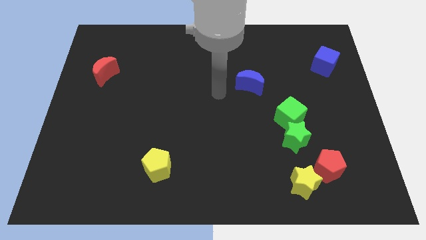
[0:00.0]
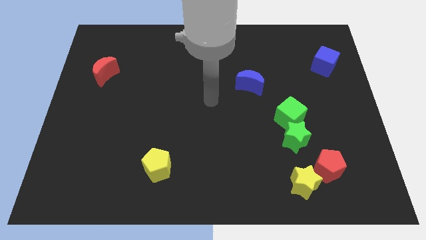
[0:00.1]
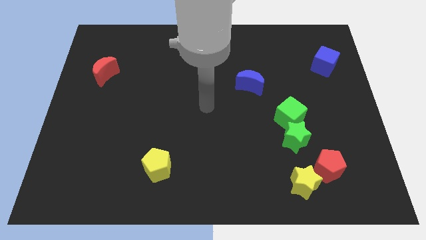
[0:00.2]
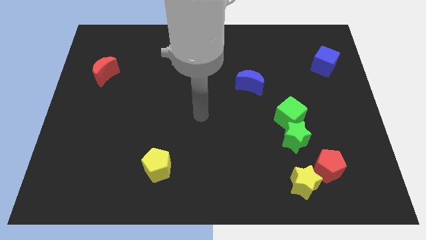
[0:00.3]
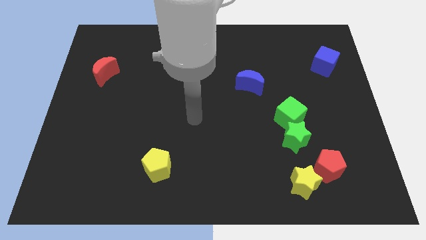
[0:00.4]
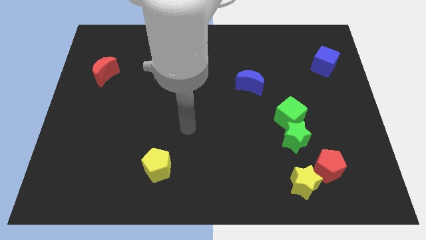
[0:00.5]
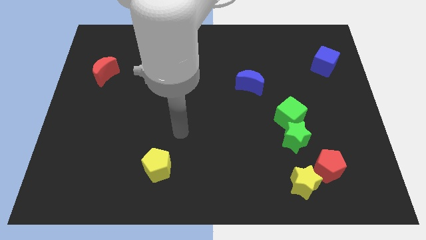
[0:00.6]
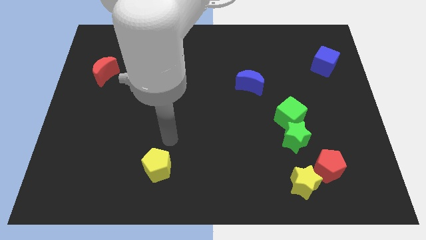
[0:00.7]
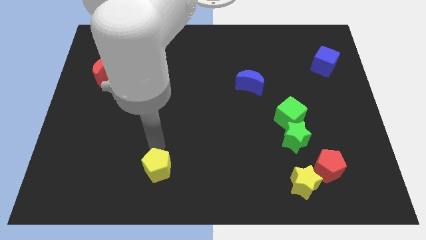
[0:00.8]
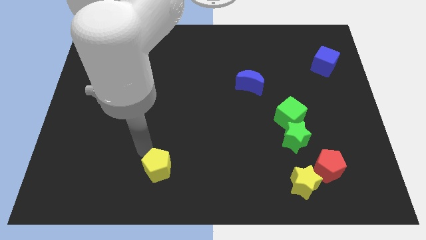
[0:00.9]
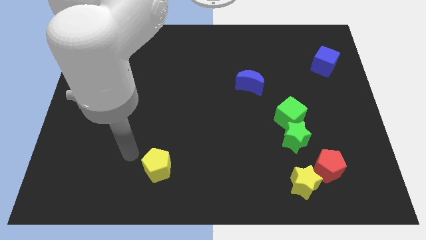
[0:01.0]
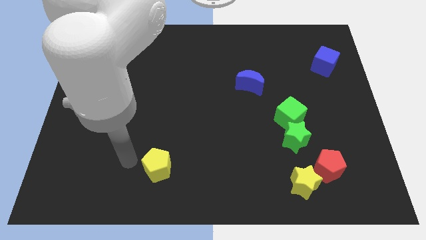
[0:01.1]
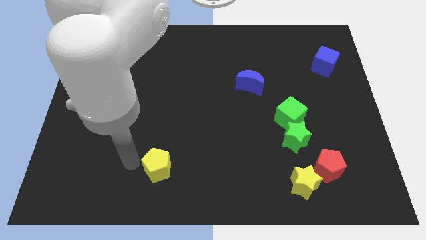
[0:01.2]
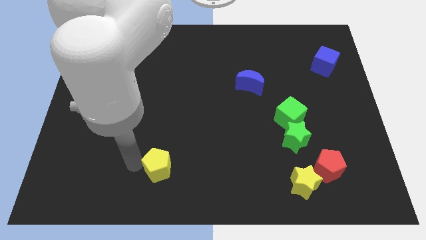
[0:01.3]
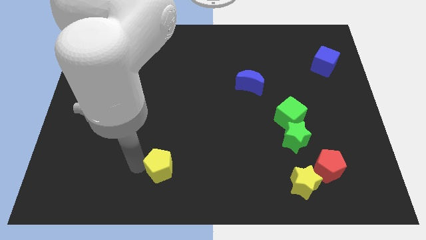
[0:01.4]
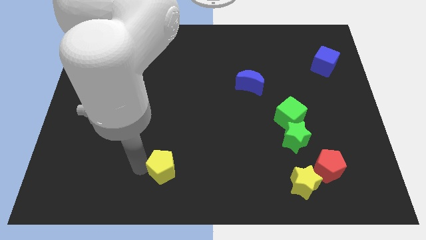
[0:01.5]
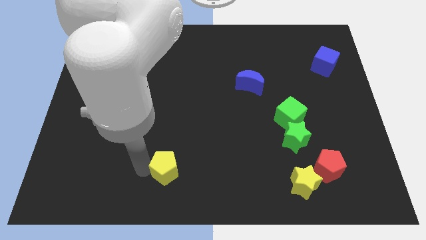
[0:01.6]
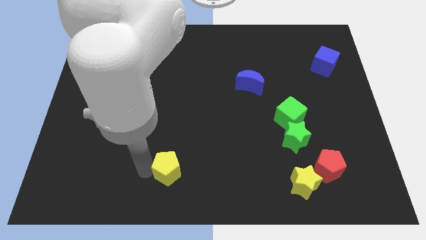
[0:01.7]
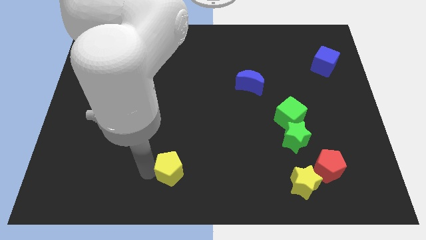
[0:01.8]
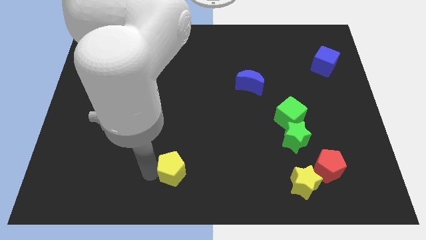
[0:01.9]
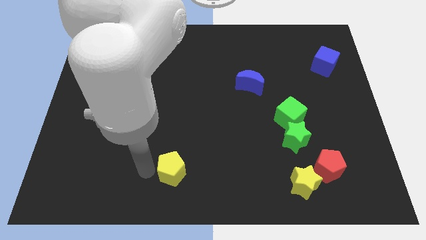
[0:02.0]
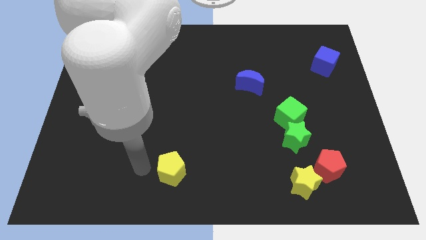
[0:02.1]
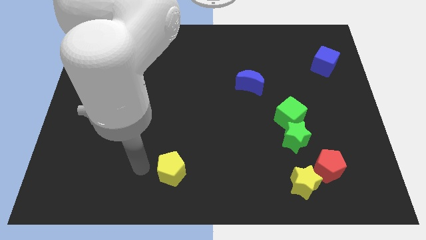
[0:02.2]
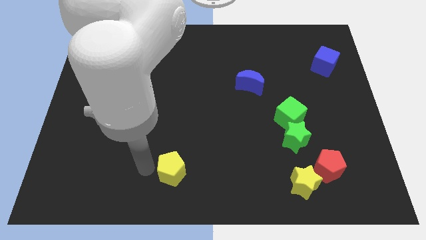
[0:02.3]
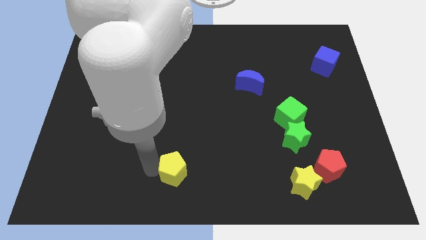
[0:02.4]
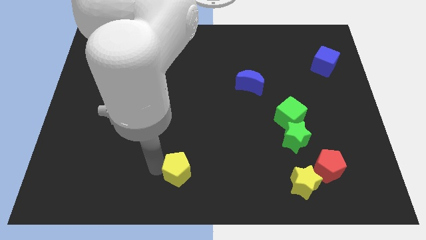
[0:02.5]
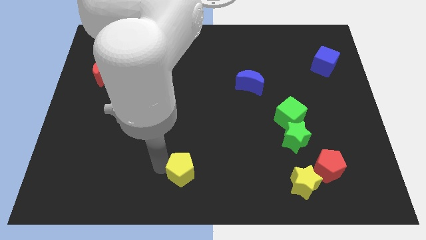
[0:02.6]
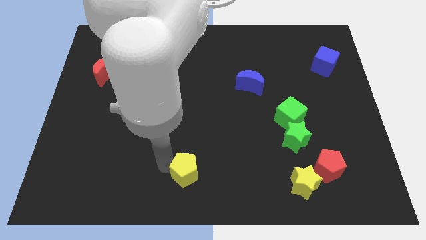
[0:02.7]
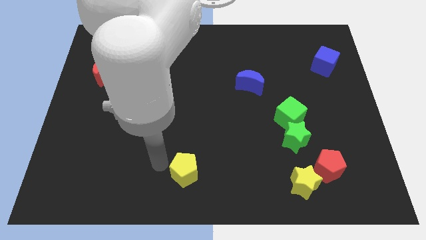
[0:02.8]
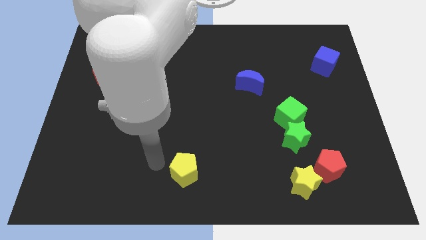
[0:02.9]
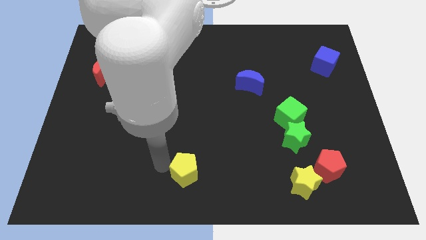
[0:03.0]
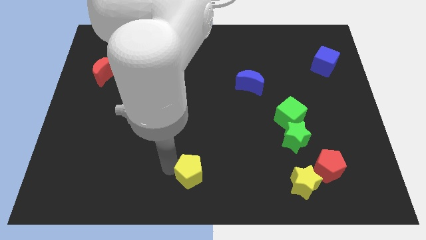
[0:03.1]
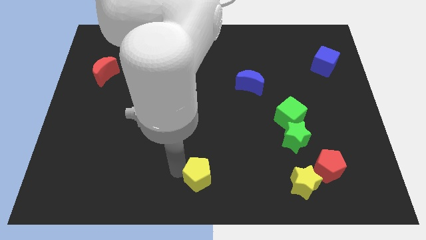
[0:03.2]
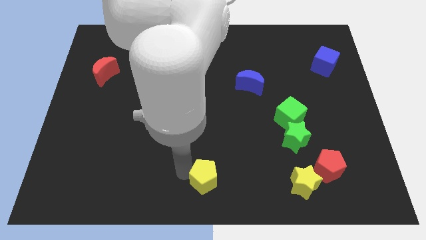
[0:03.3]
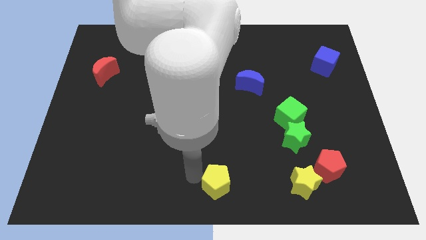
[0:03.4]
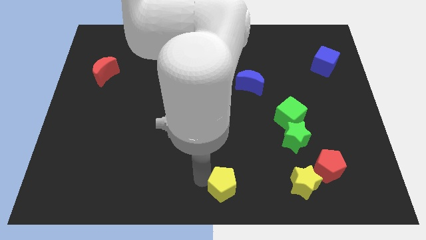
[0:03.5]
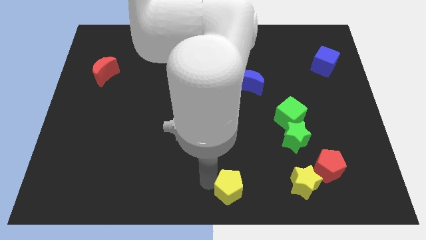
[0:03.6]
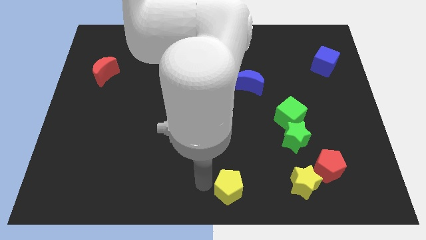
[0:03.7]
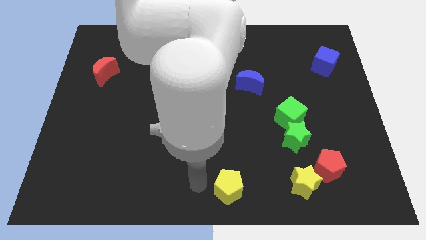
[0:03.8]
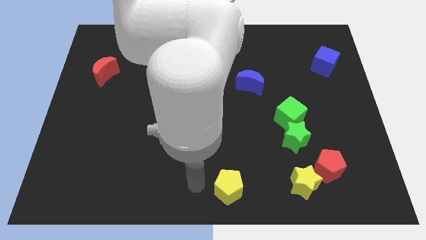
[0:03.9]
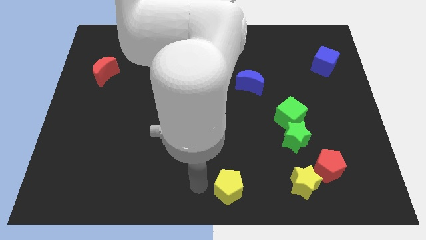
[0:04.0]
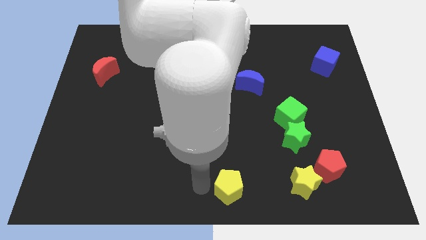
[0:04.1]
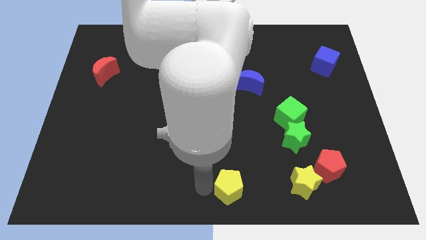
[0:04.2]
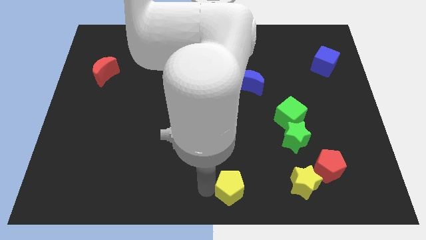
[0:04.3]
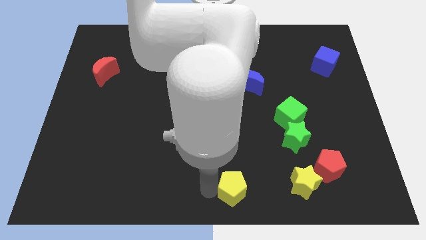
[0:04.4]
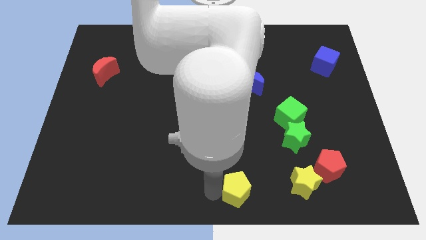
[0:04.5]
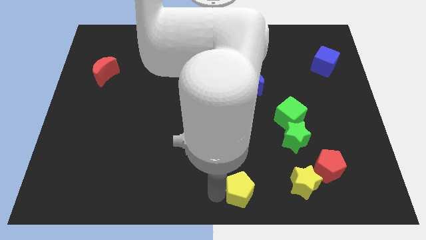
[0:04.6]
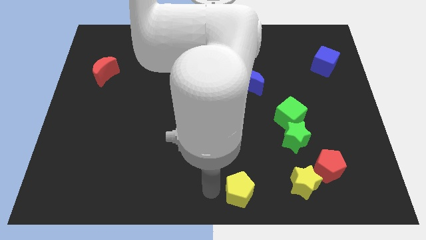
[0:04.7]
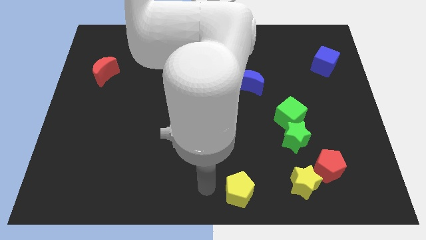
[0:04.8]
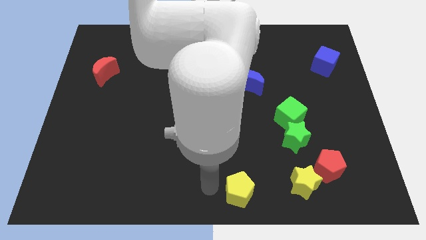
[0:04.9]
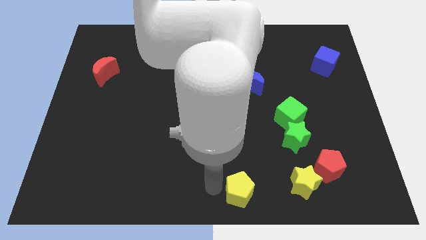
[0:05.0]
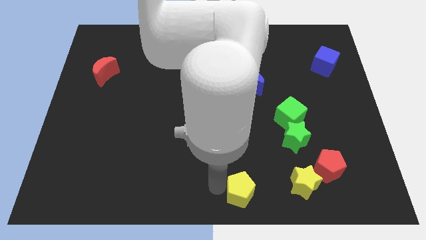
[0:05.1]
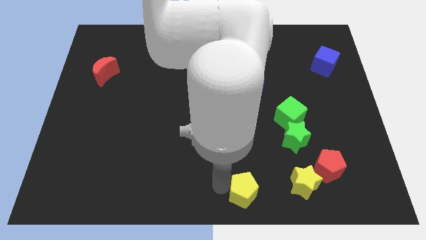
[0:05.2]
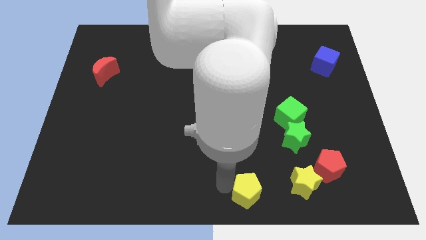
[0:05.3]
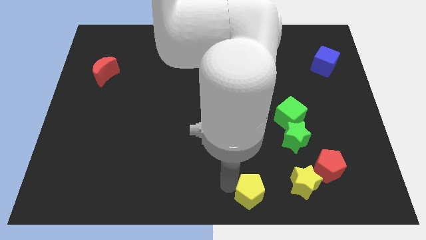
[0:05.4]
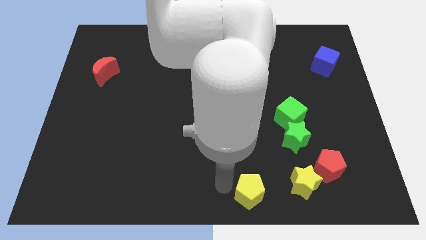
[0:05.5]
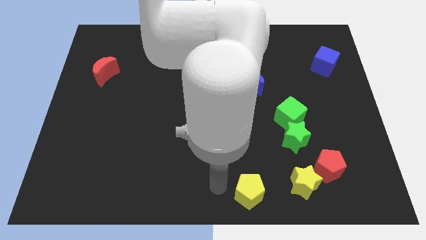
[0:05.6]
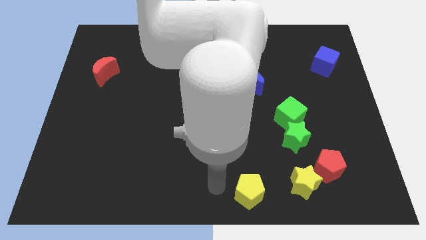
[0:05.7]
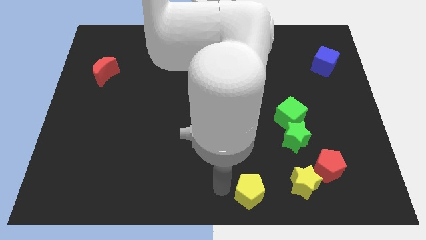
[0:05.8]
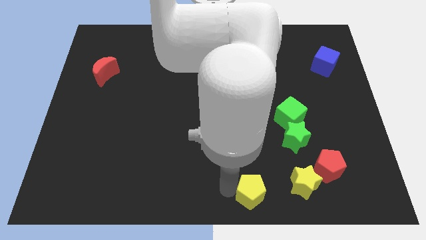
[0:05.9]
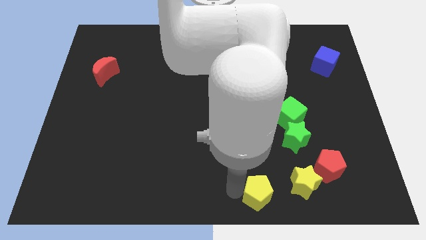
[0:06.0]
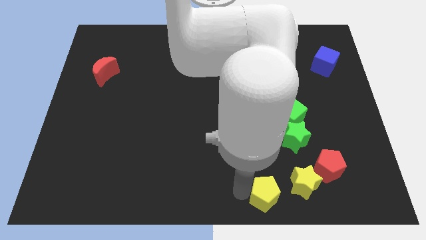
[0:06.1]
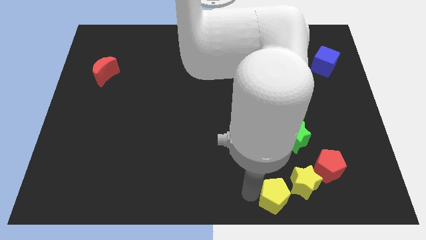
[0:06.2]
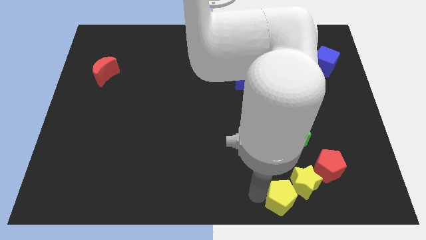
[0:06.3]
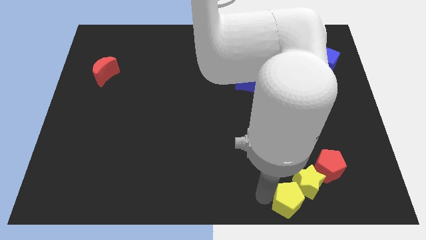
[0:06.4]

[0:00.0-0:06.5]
slide the yellow pentagon to the bottom of the green star

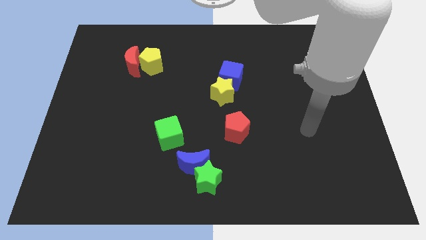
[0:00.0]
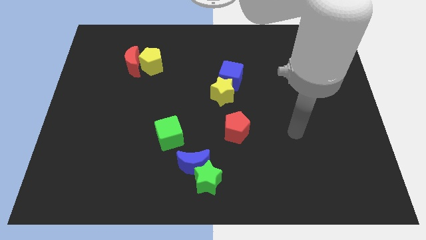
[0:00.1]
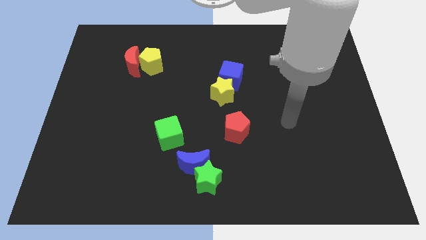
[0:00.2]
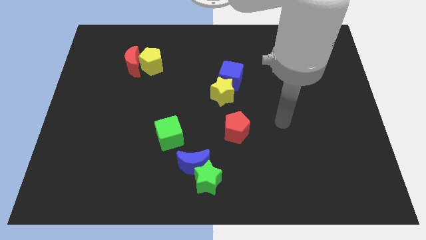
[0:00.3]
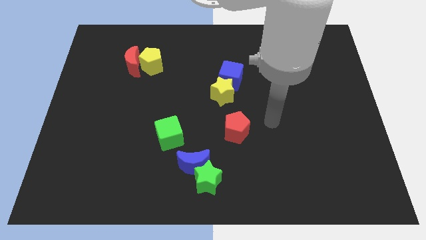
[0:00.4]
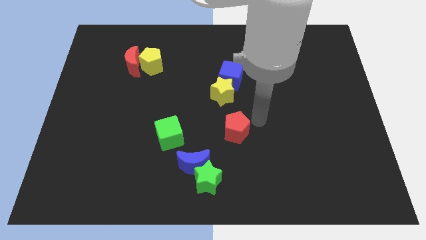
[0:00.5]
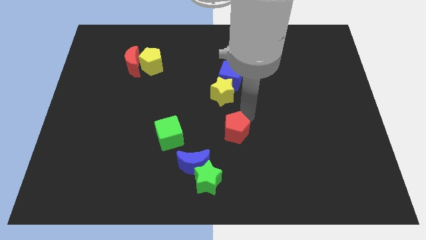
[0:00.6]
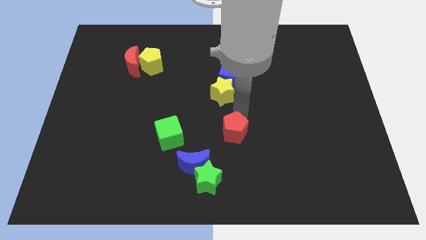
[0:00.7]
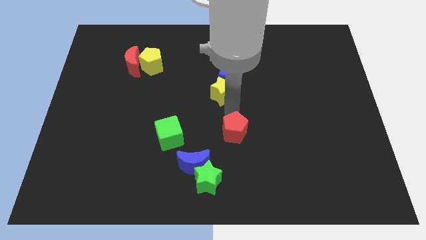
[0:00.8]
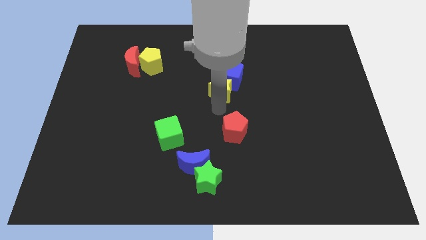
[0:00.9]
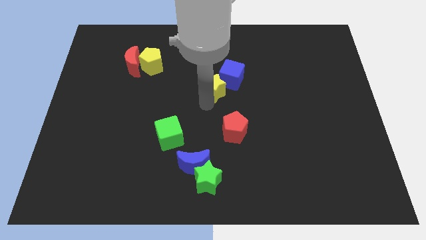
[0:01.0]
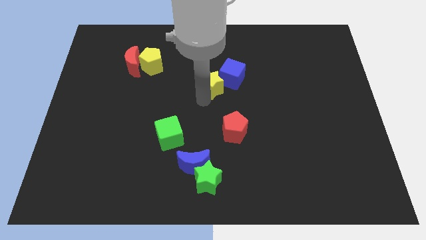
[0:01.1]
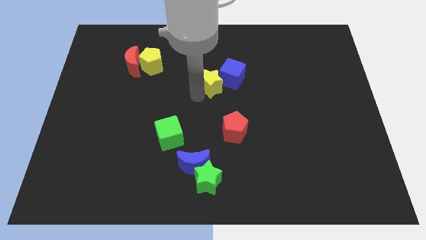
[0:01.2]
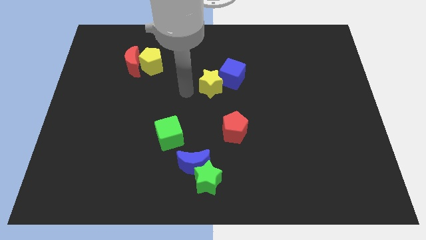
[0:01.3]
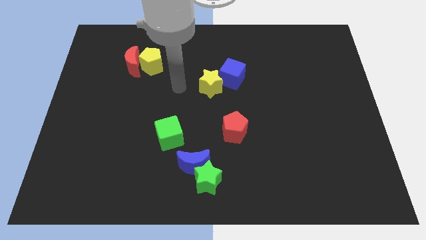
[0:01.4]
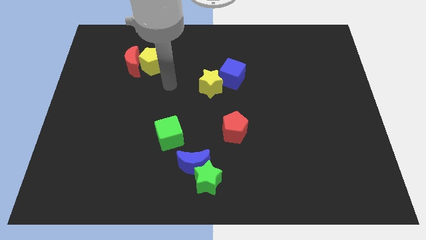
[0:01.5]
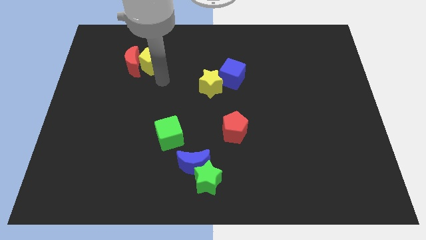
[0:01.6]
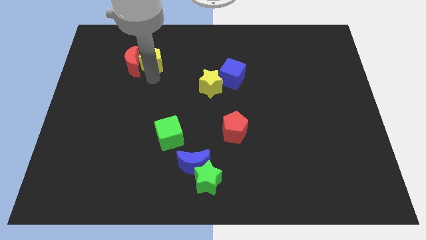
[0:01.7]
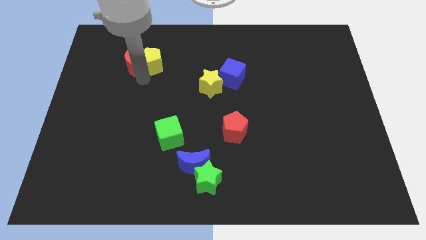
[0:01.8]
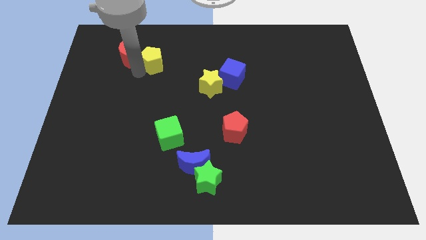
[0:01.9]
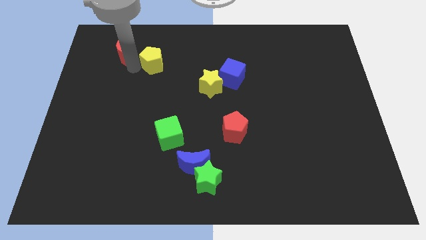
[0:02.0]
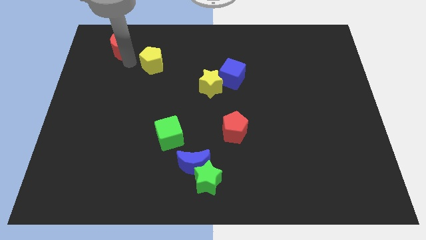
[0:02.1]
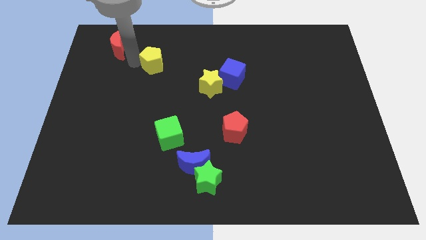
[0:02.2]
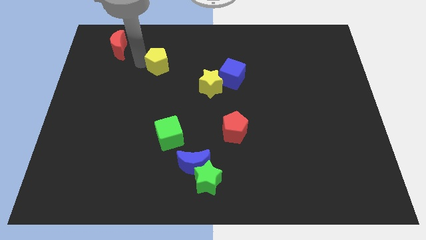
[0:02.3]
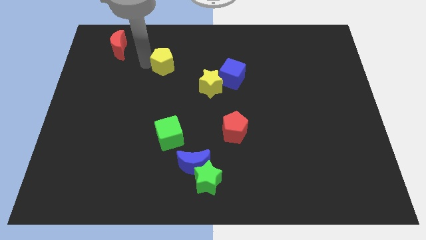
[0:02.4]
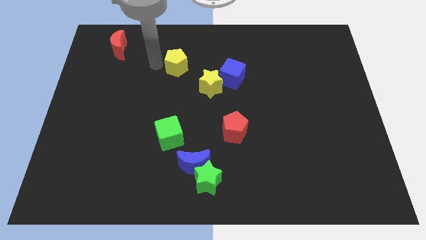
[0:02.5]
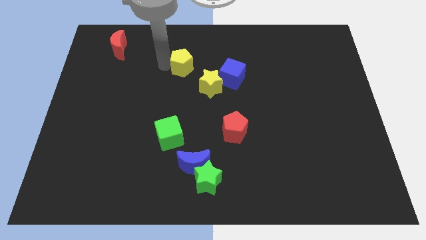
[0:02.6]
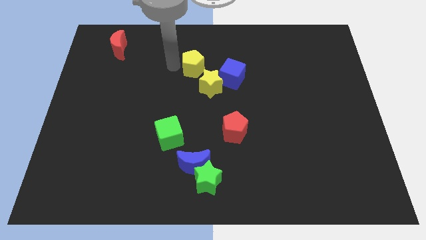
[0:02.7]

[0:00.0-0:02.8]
slide the yellow pentagon to the top left of the blue cube
